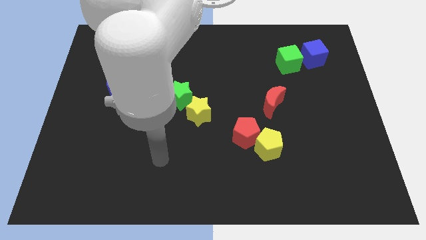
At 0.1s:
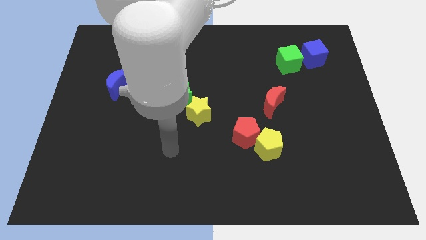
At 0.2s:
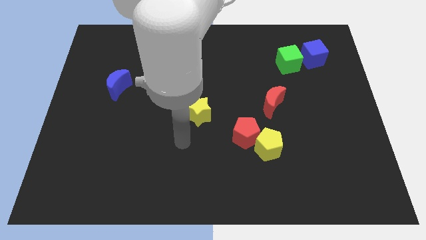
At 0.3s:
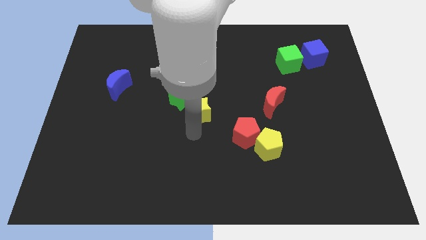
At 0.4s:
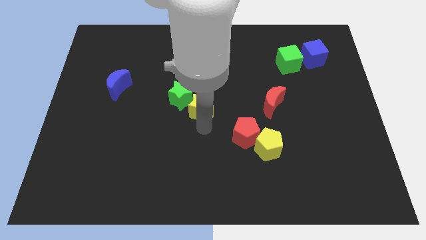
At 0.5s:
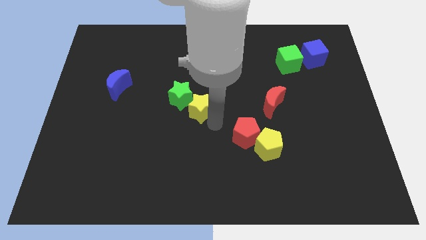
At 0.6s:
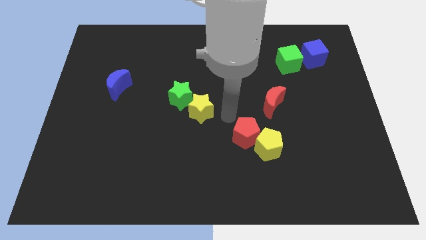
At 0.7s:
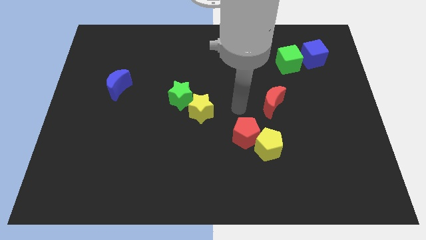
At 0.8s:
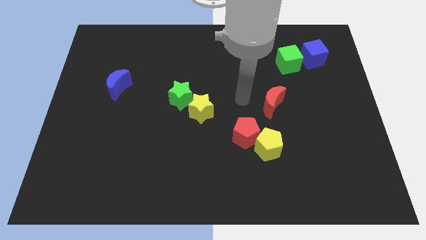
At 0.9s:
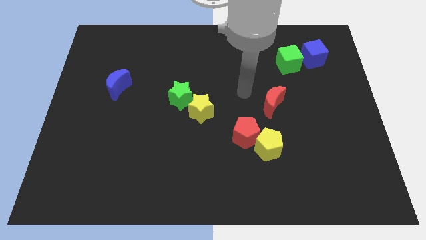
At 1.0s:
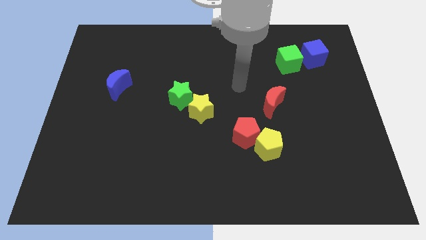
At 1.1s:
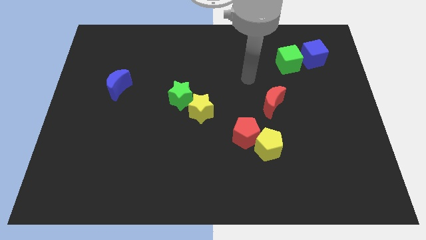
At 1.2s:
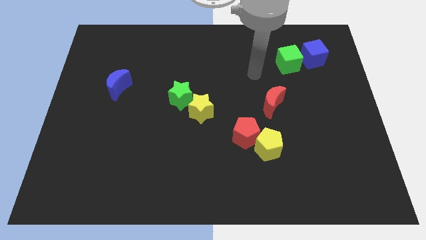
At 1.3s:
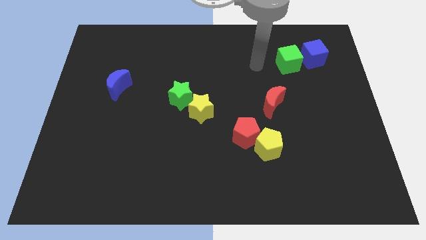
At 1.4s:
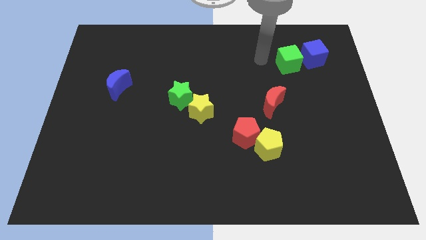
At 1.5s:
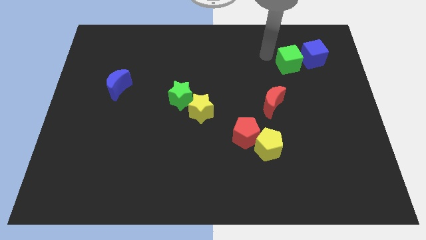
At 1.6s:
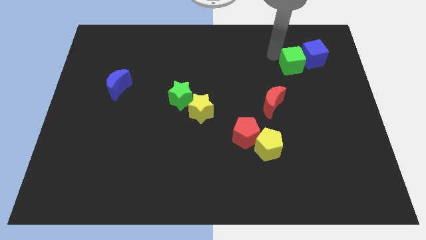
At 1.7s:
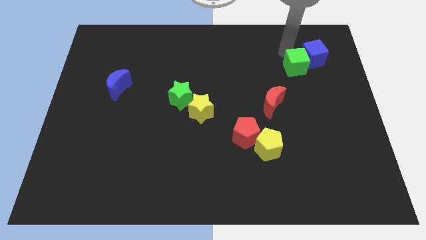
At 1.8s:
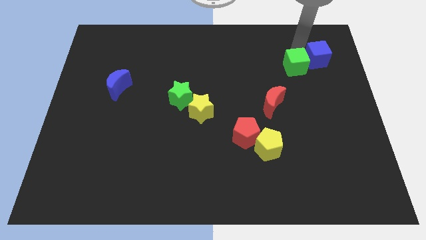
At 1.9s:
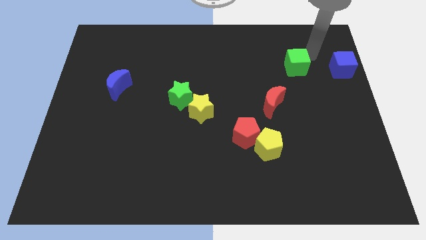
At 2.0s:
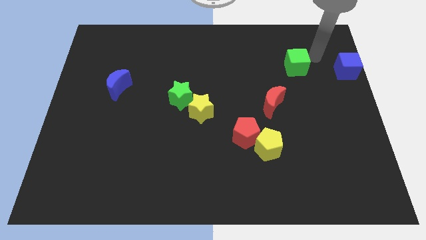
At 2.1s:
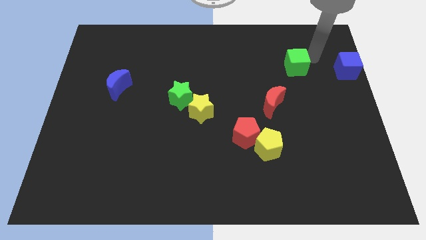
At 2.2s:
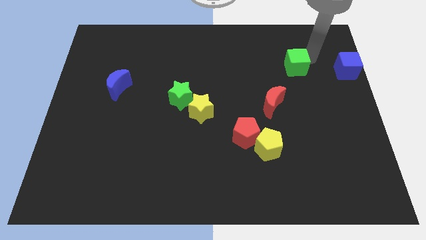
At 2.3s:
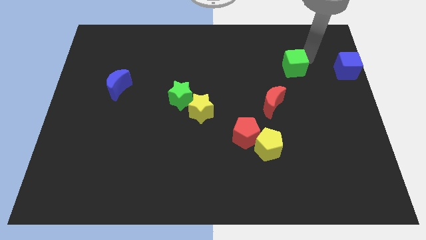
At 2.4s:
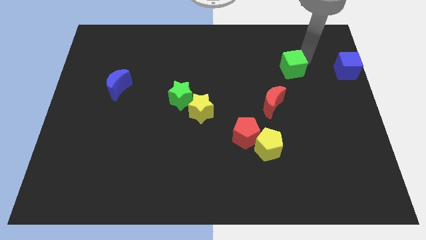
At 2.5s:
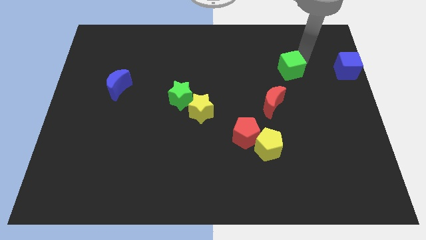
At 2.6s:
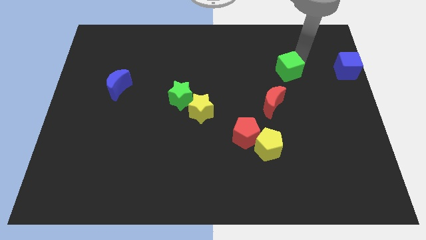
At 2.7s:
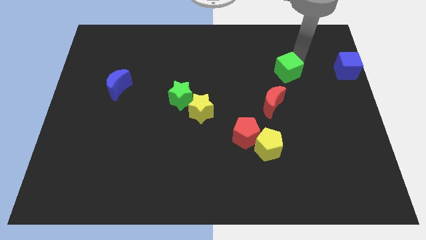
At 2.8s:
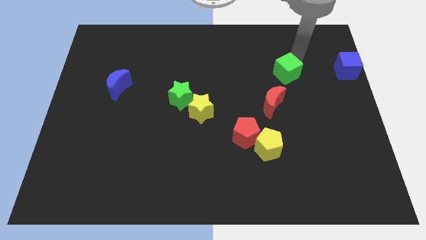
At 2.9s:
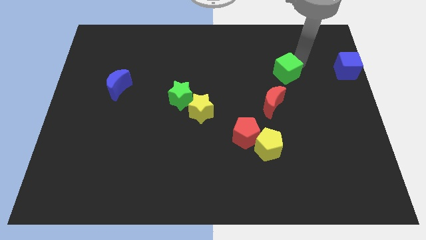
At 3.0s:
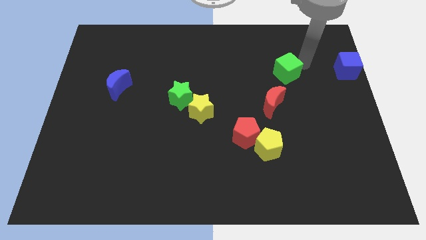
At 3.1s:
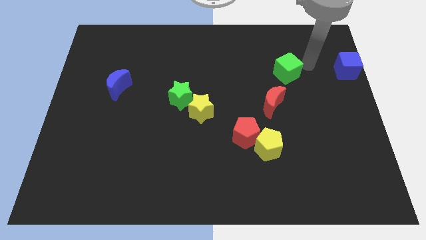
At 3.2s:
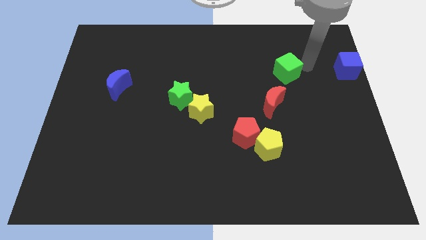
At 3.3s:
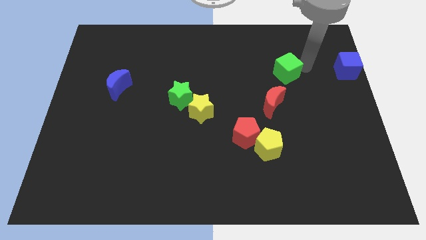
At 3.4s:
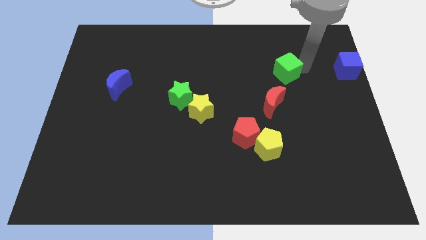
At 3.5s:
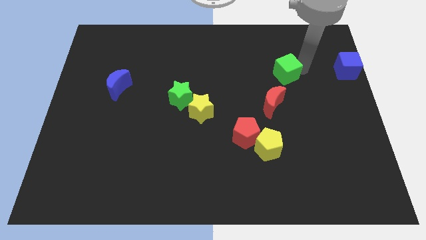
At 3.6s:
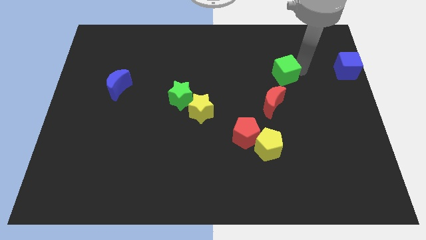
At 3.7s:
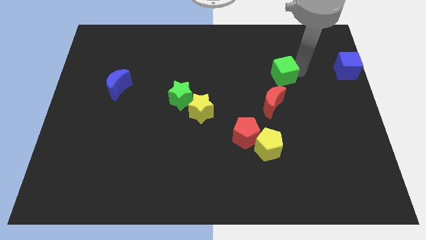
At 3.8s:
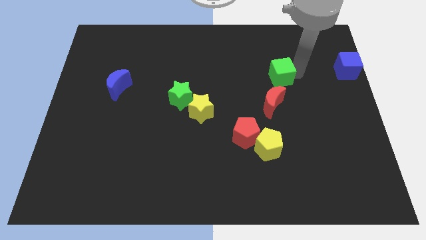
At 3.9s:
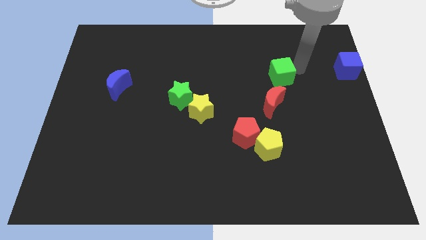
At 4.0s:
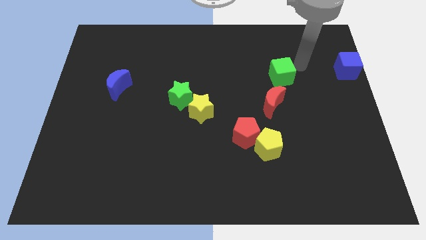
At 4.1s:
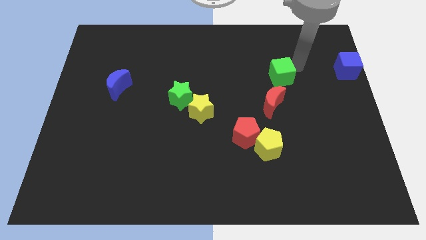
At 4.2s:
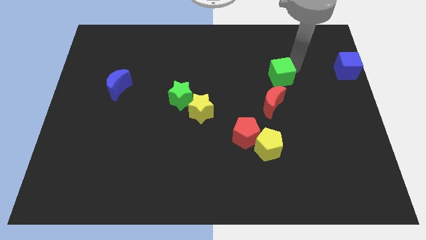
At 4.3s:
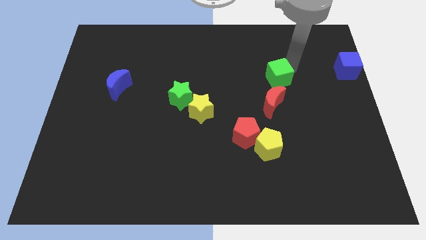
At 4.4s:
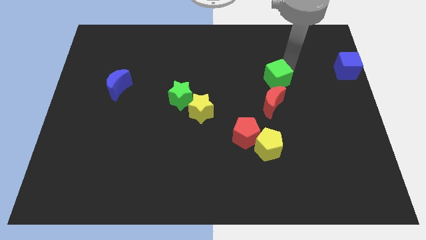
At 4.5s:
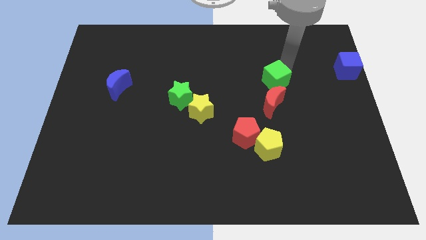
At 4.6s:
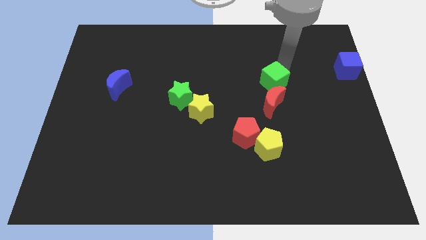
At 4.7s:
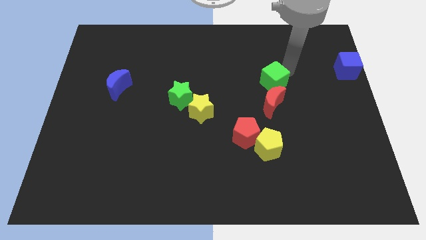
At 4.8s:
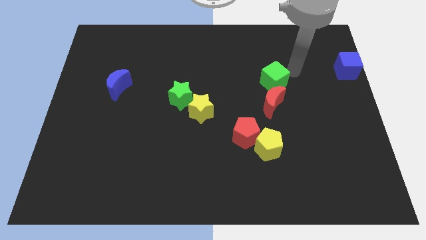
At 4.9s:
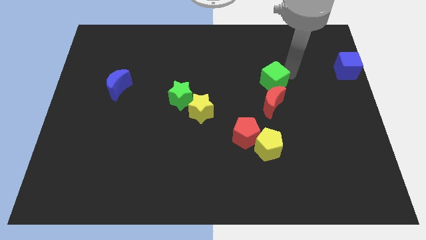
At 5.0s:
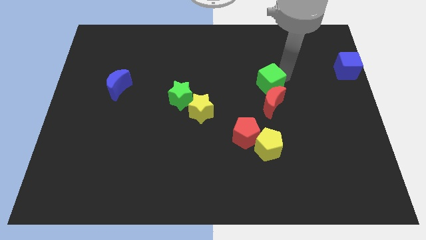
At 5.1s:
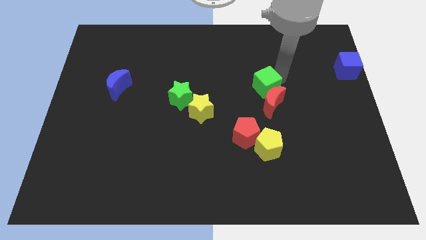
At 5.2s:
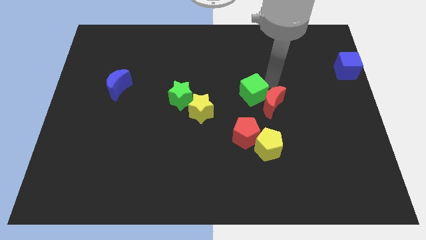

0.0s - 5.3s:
slide the green cube just left of the red moon

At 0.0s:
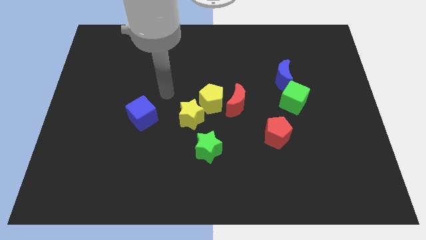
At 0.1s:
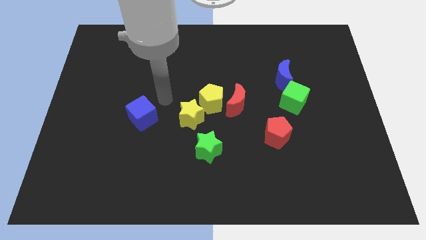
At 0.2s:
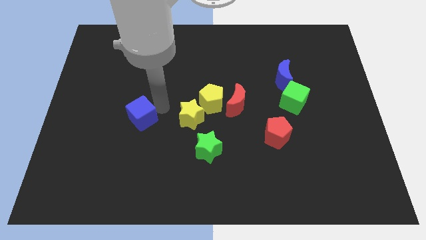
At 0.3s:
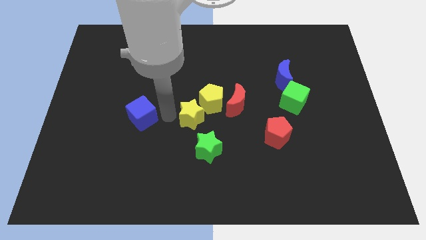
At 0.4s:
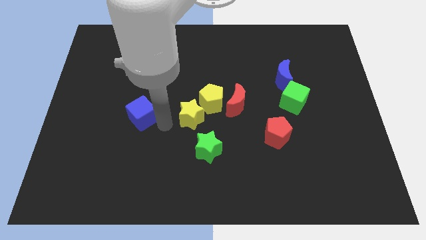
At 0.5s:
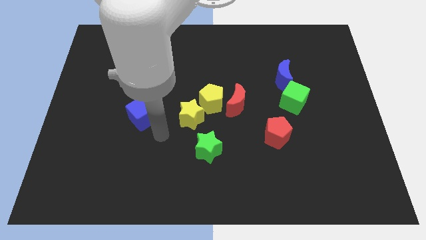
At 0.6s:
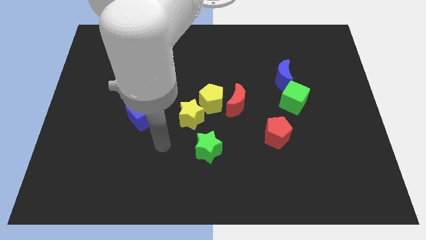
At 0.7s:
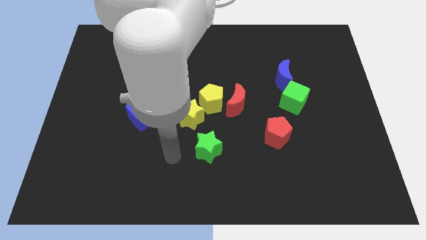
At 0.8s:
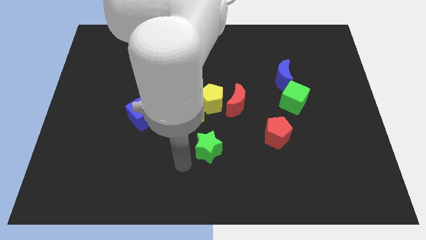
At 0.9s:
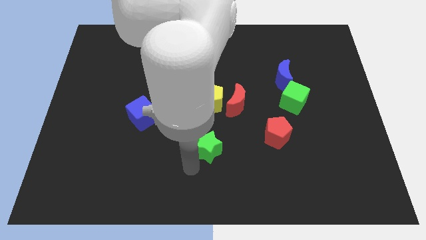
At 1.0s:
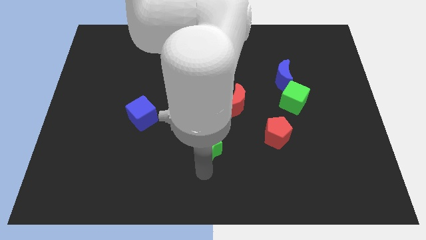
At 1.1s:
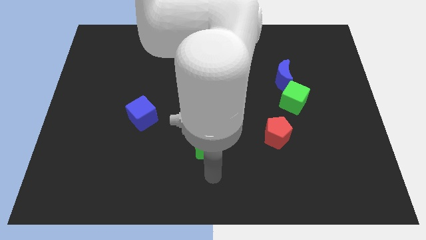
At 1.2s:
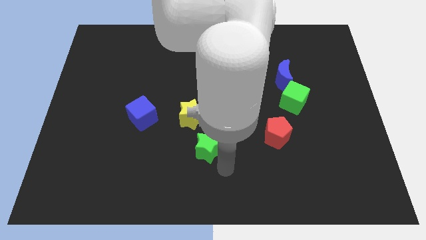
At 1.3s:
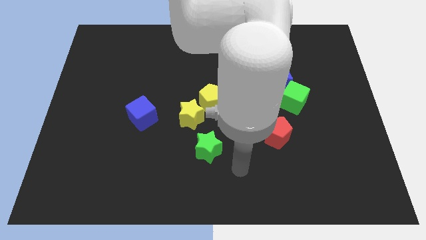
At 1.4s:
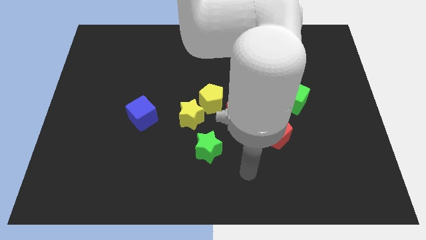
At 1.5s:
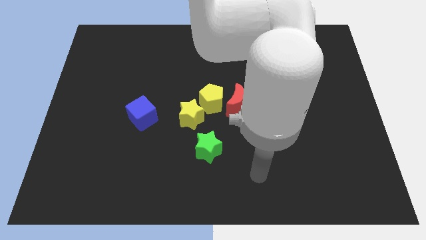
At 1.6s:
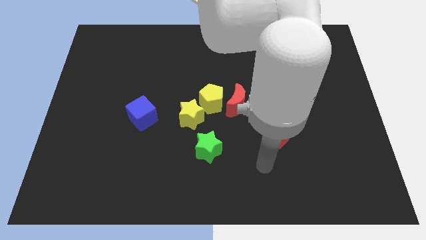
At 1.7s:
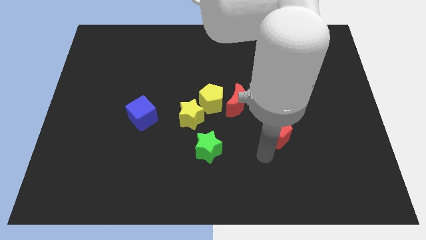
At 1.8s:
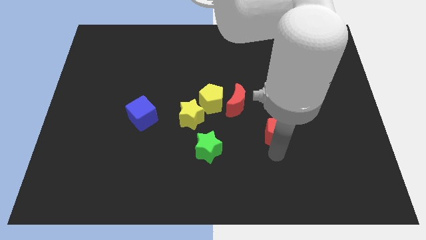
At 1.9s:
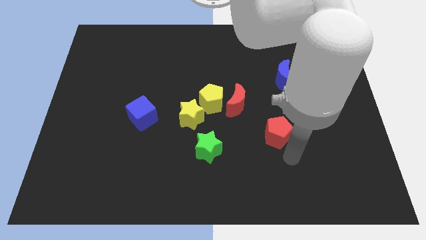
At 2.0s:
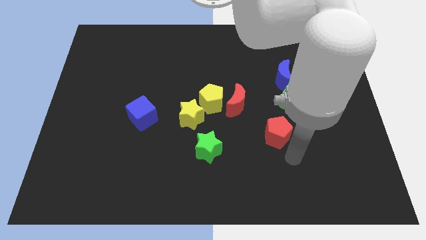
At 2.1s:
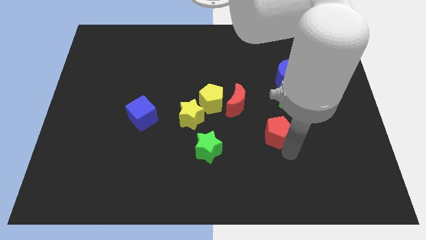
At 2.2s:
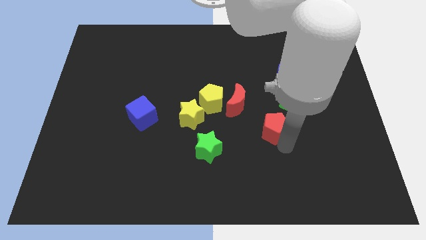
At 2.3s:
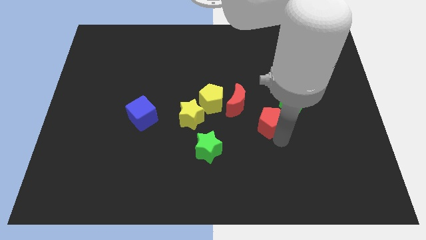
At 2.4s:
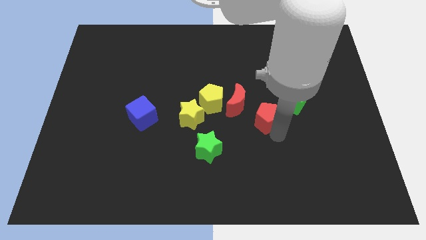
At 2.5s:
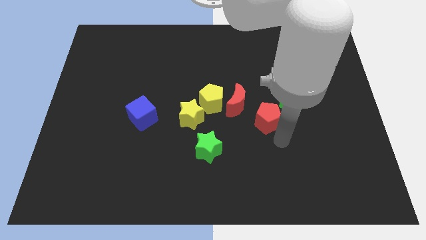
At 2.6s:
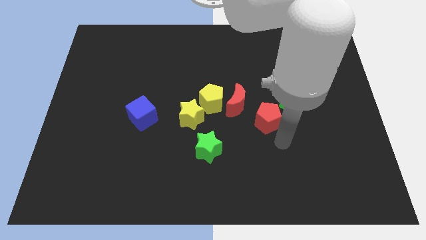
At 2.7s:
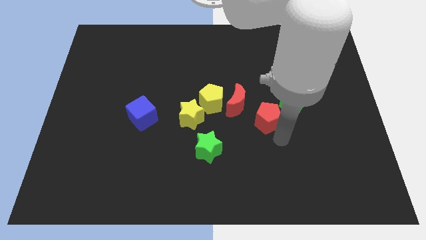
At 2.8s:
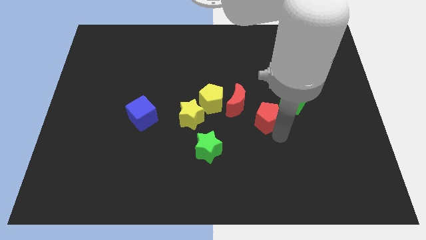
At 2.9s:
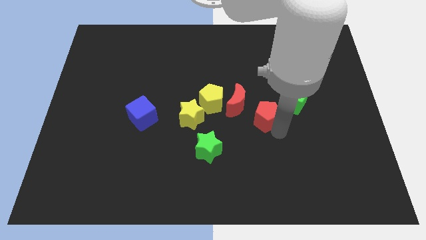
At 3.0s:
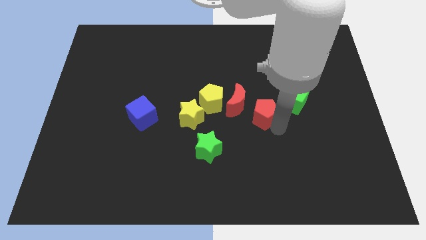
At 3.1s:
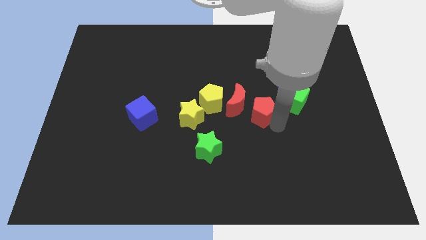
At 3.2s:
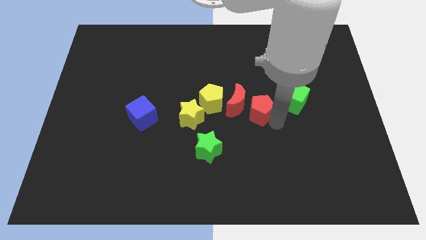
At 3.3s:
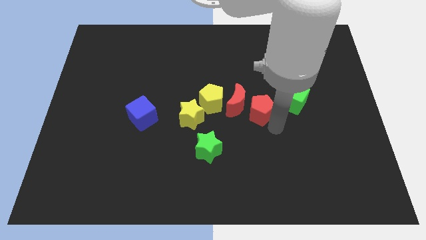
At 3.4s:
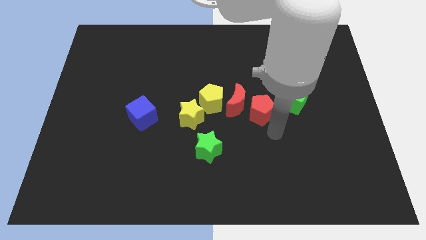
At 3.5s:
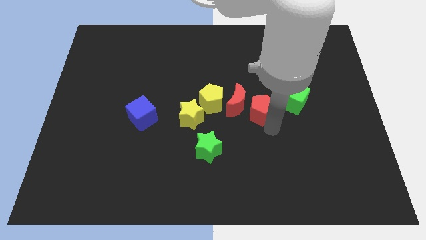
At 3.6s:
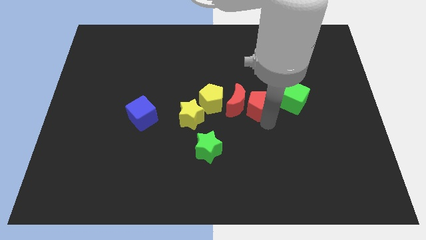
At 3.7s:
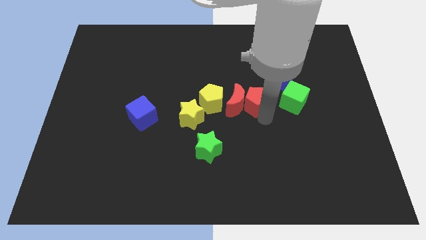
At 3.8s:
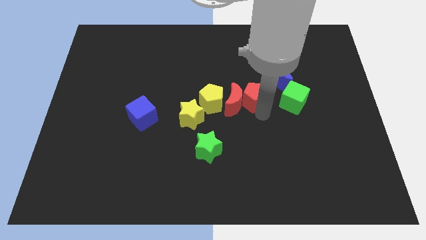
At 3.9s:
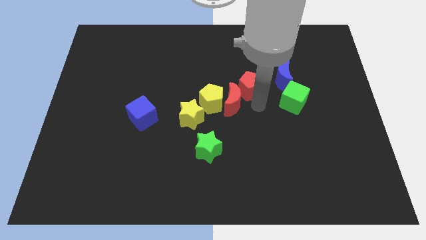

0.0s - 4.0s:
slide the red pentagon to the top of the red moon
